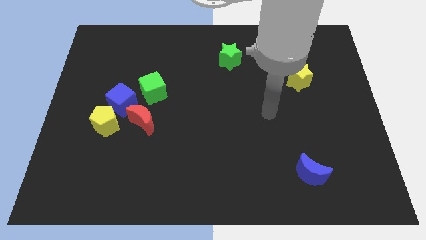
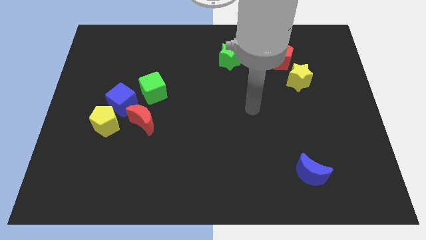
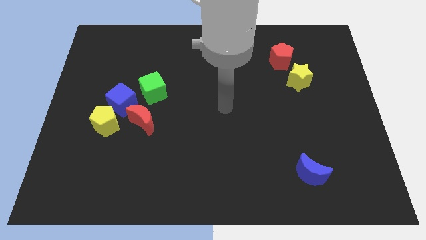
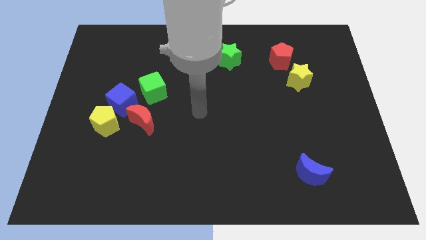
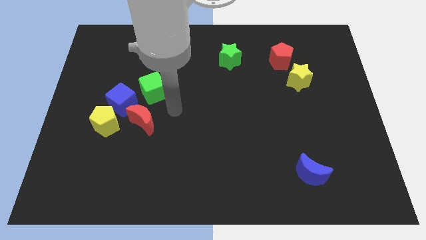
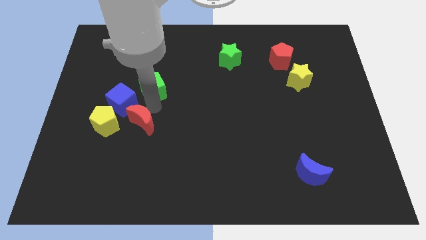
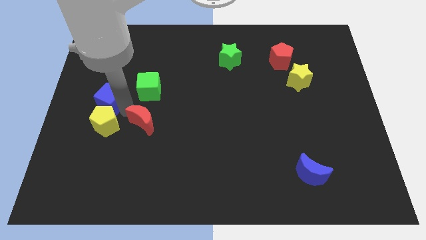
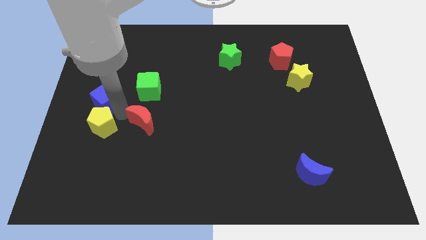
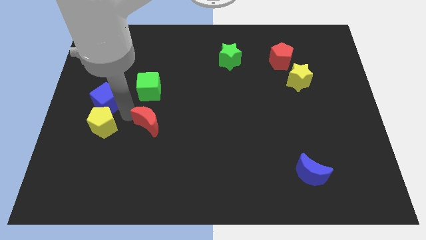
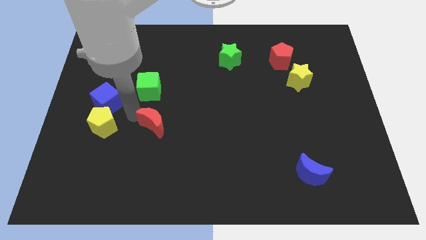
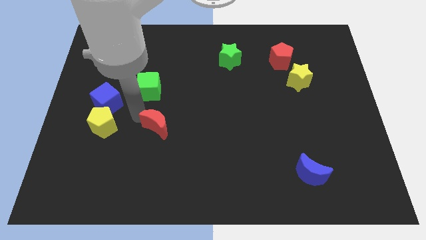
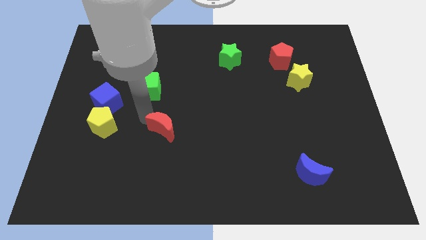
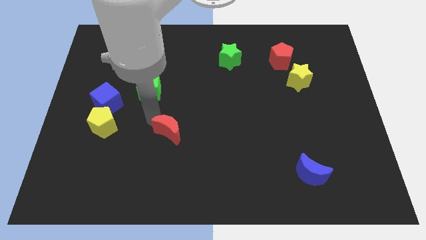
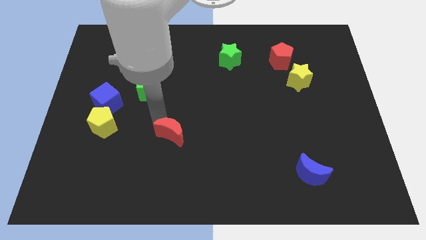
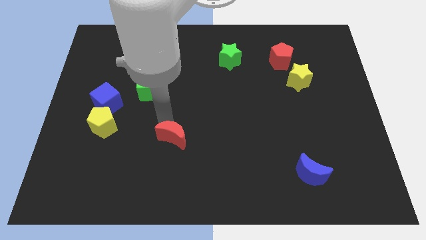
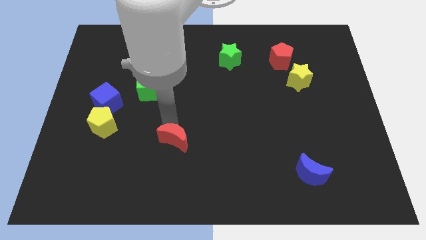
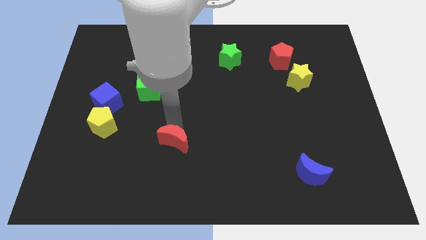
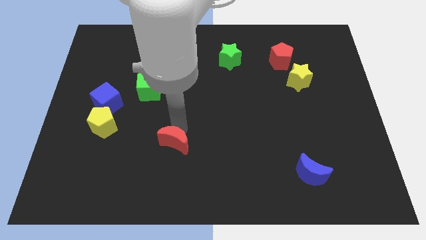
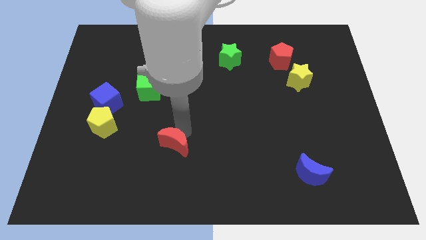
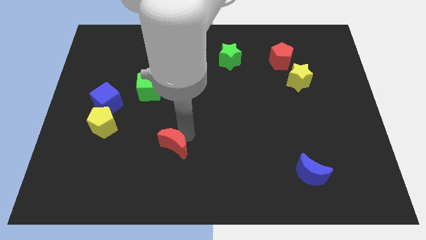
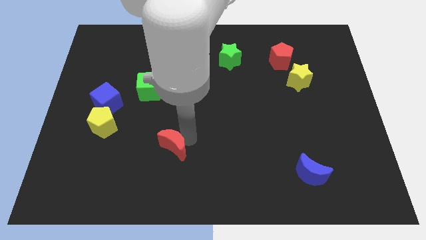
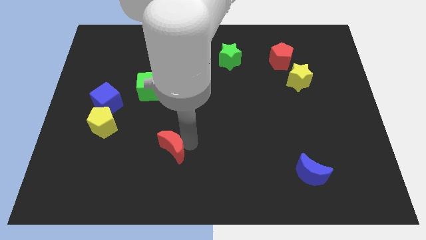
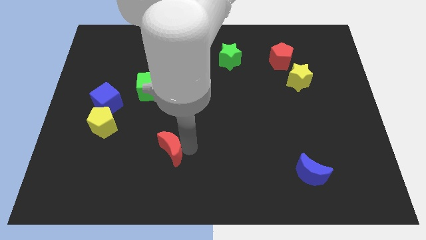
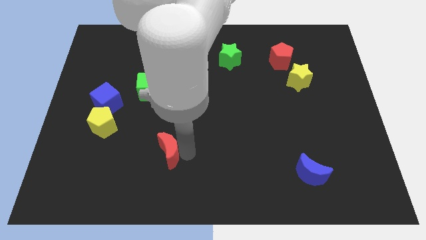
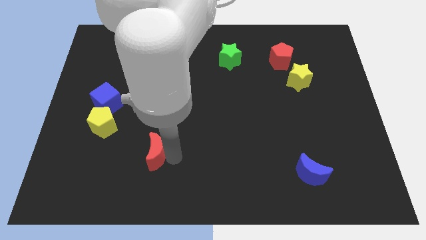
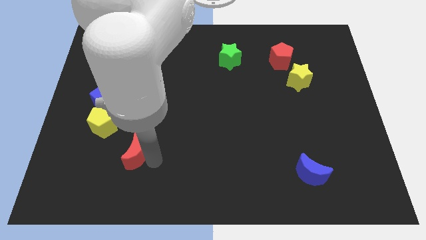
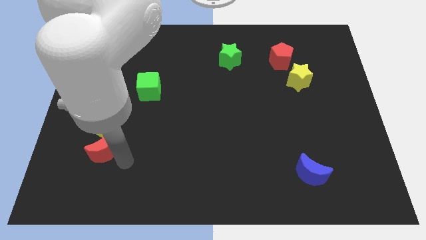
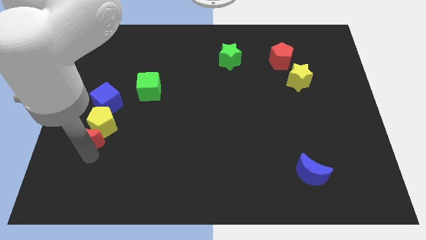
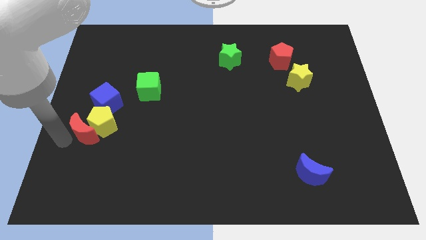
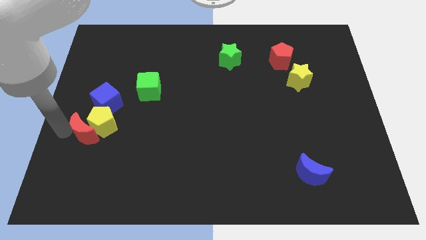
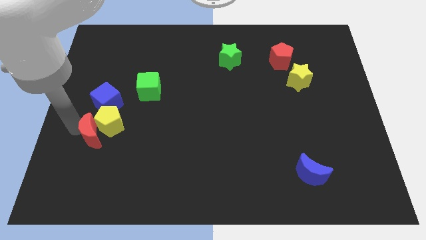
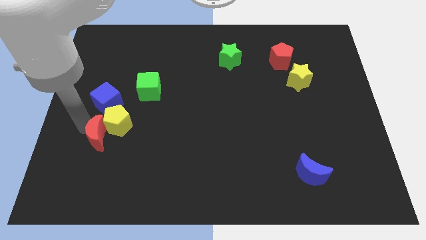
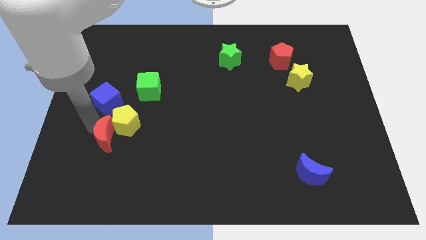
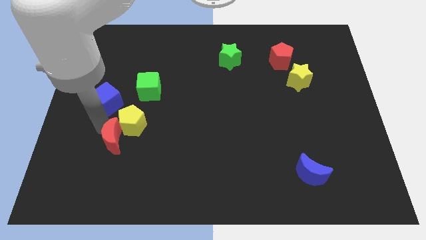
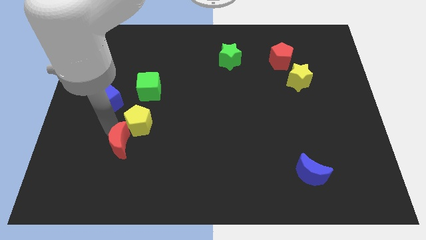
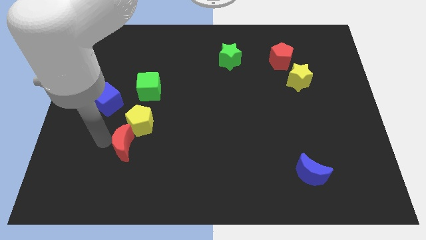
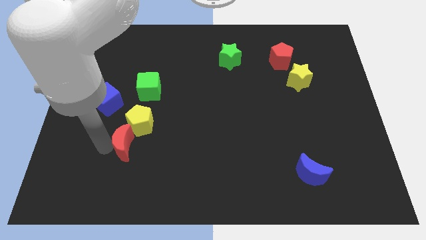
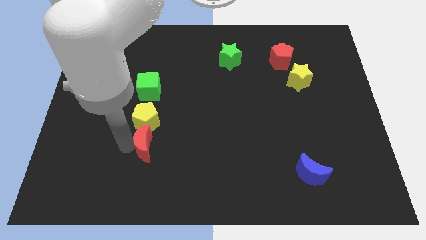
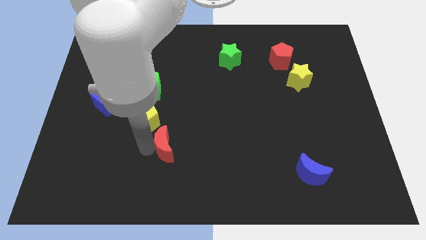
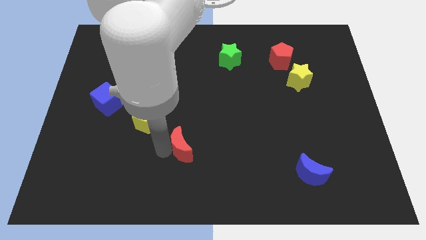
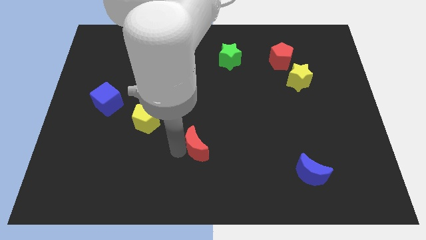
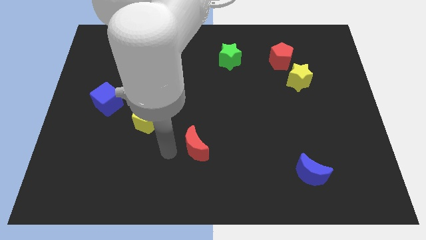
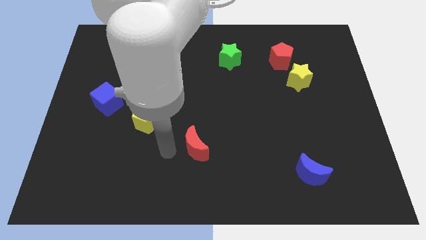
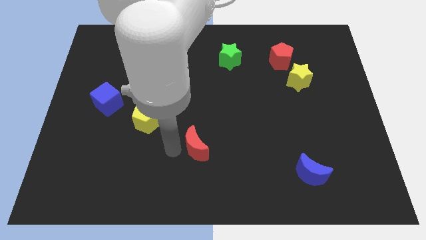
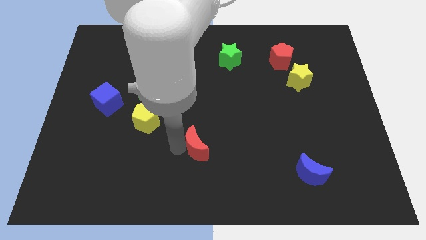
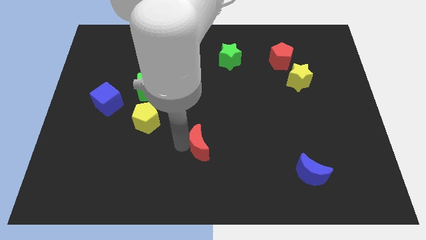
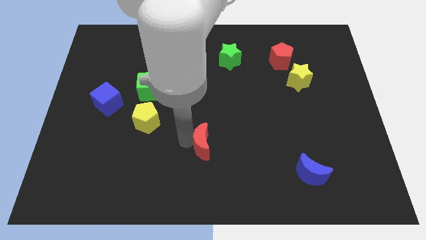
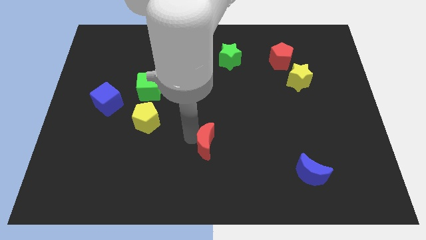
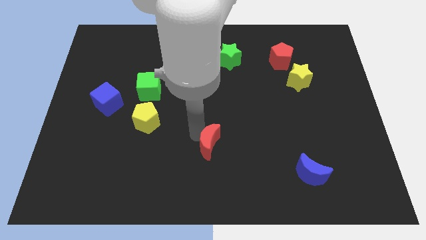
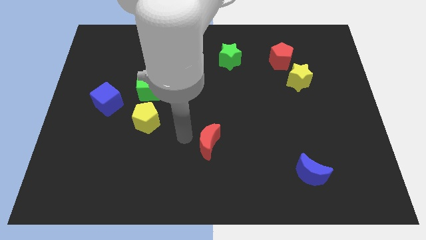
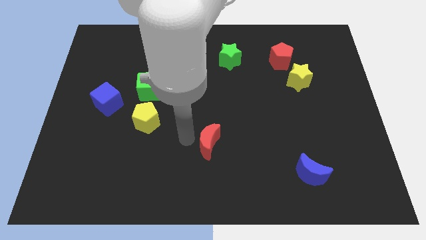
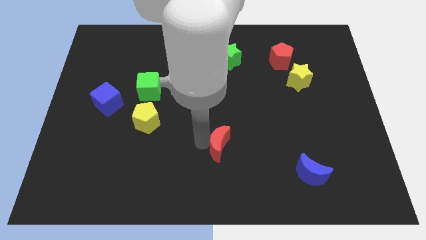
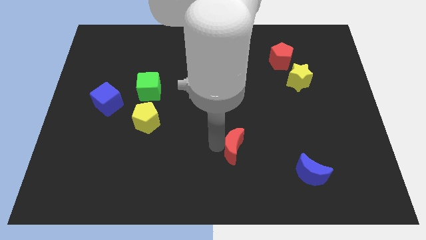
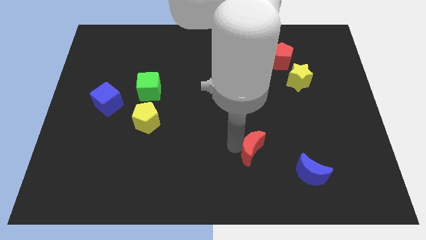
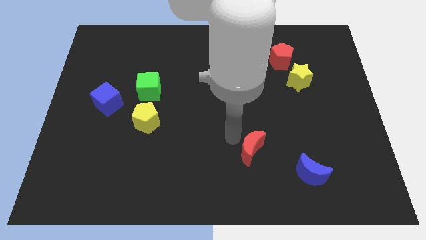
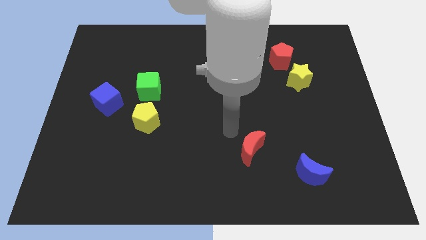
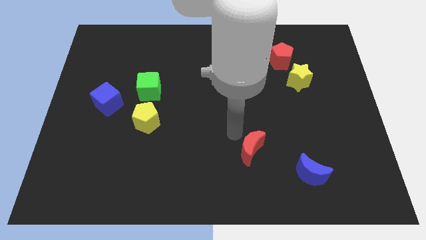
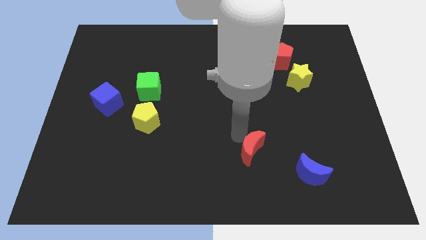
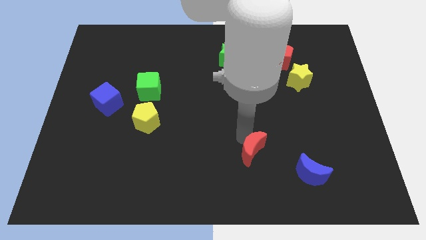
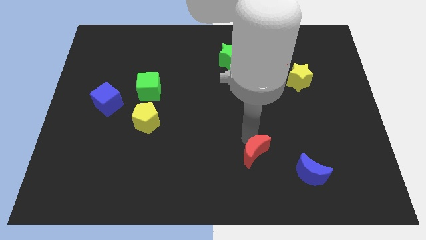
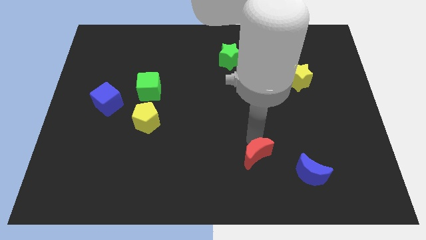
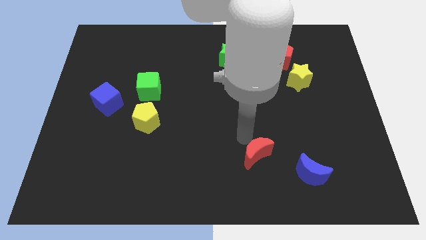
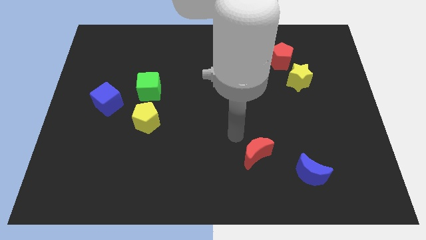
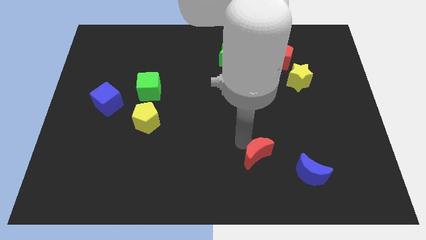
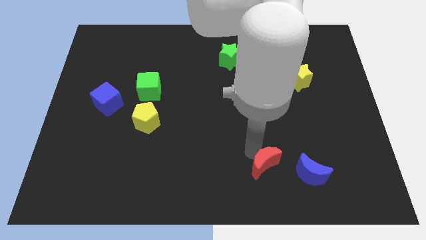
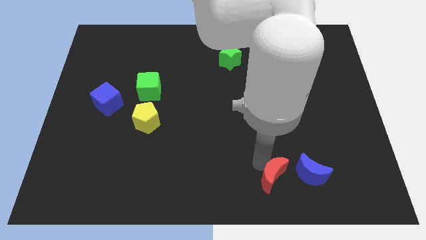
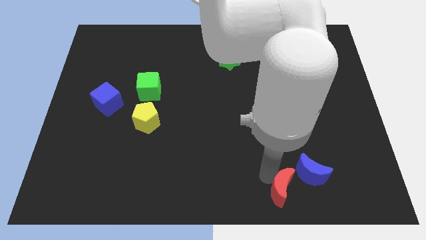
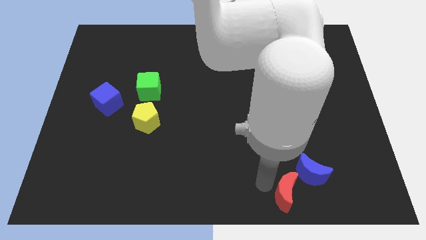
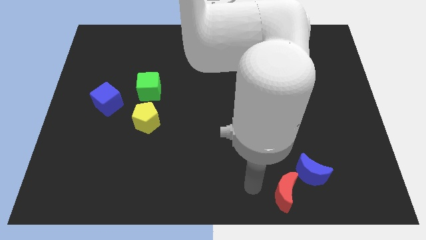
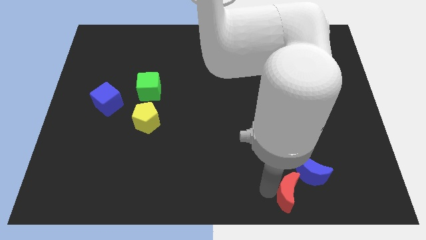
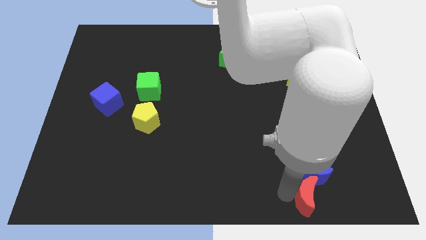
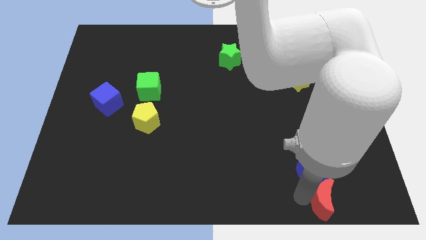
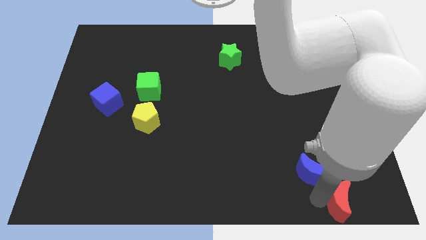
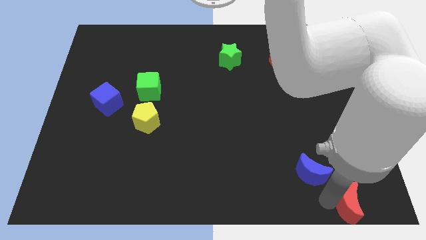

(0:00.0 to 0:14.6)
put the red moon to the bottom right corner

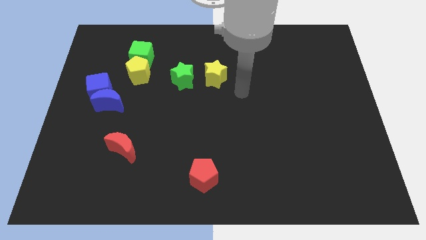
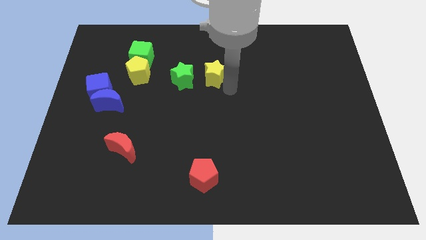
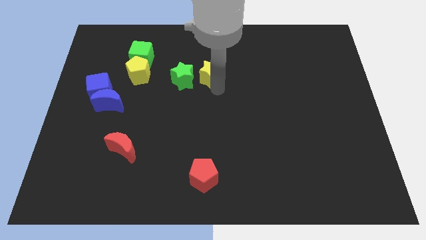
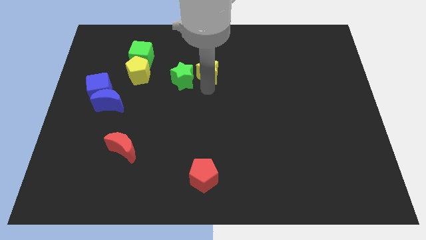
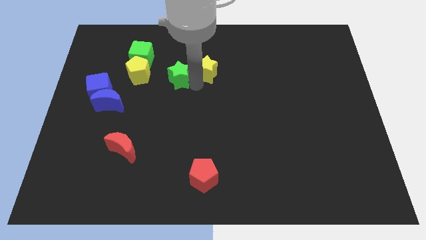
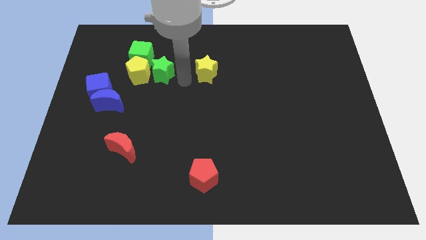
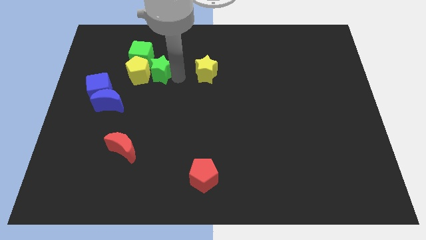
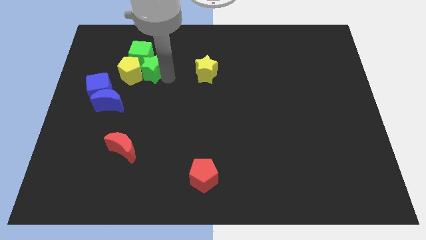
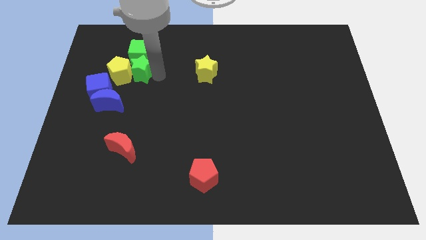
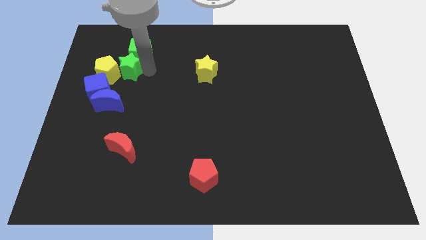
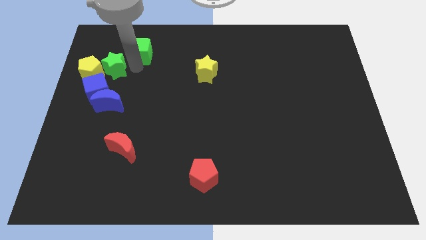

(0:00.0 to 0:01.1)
push the yellow pentagon to the left side of the board
